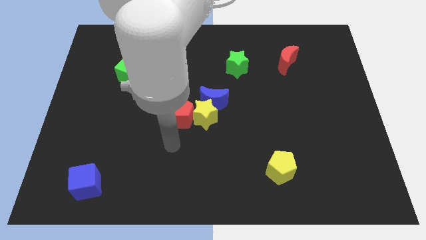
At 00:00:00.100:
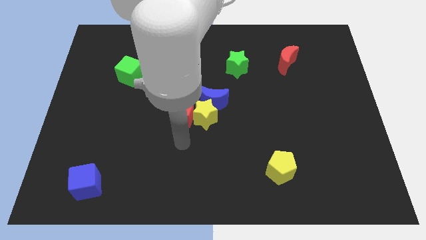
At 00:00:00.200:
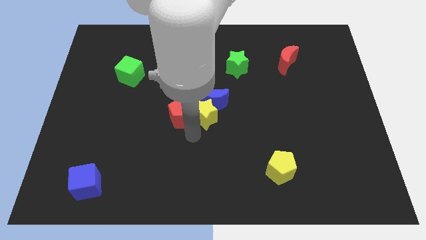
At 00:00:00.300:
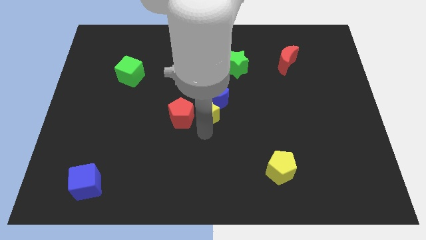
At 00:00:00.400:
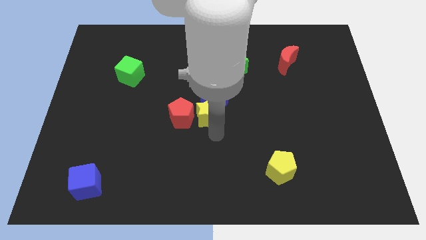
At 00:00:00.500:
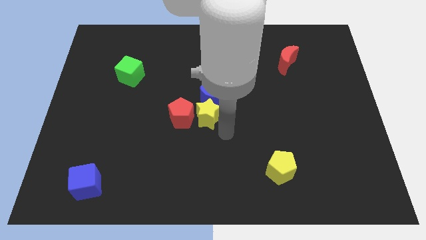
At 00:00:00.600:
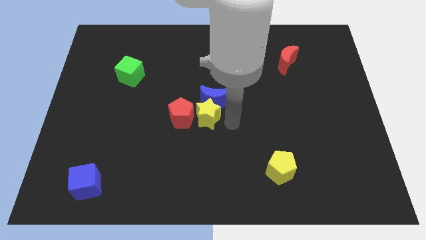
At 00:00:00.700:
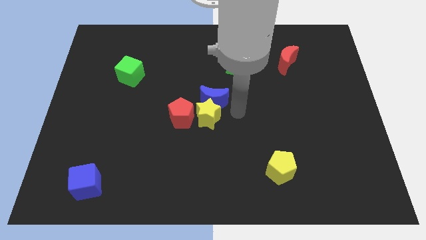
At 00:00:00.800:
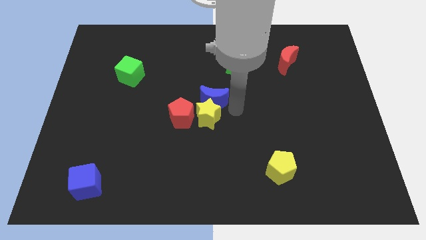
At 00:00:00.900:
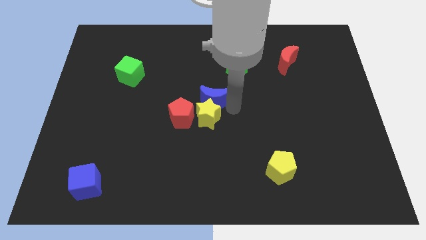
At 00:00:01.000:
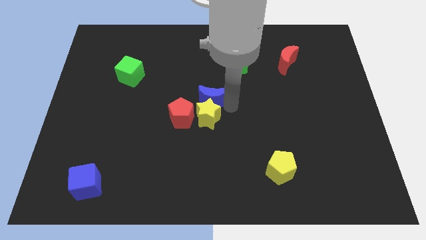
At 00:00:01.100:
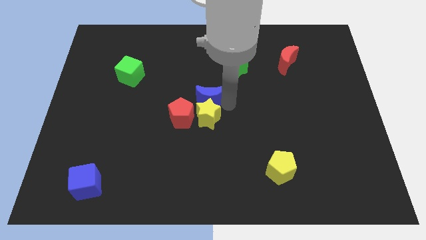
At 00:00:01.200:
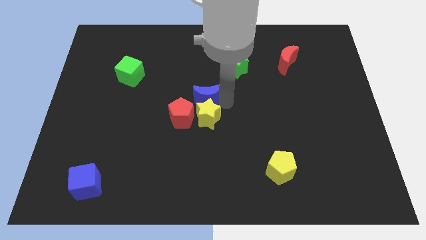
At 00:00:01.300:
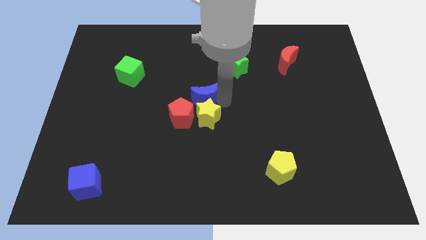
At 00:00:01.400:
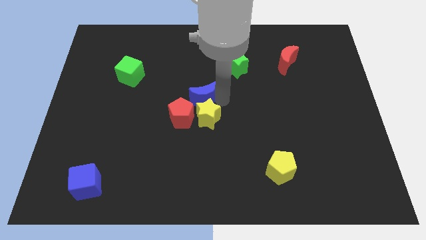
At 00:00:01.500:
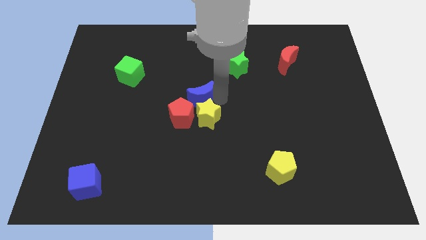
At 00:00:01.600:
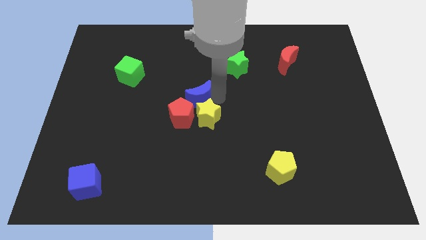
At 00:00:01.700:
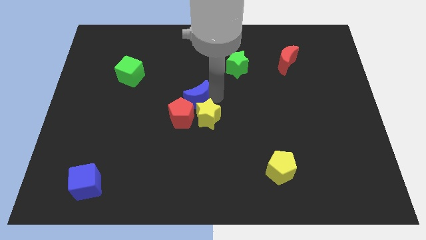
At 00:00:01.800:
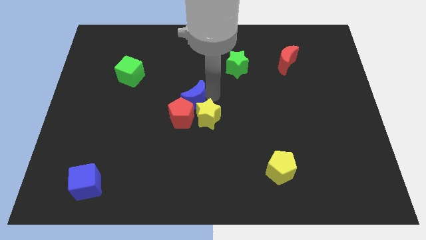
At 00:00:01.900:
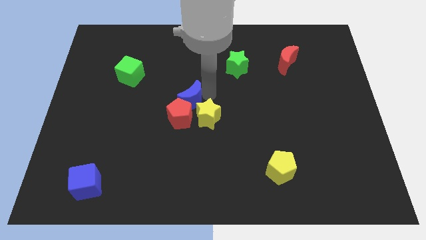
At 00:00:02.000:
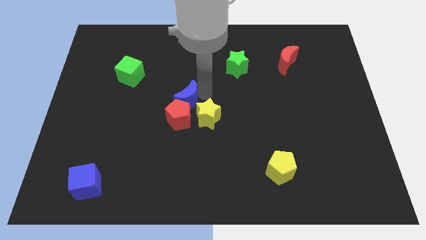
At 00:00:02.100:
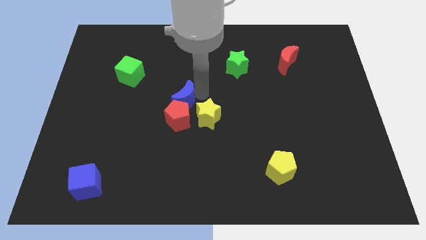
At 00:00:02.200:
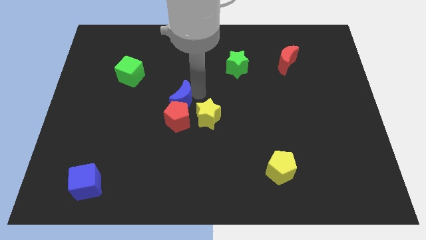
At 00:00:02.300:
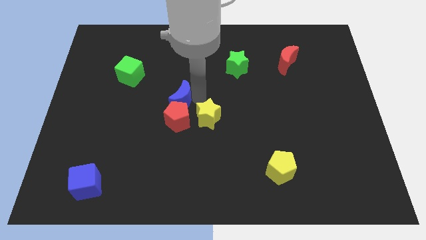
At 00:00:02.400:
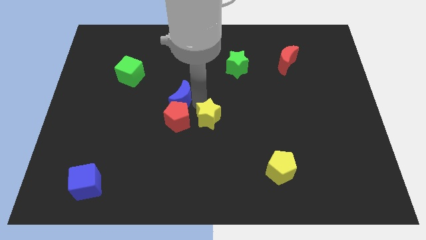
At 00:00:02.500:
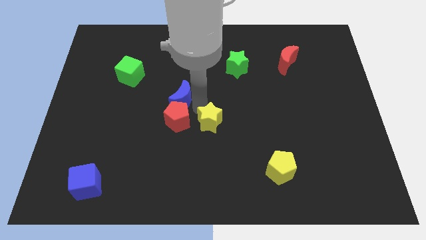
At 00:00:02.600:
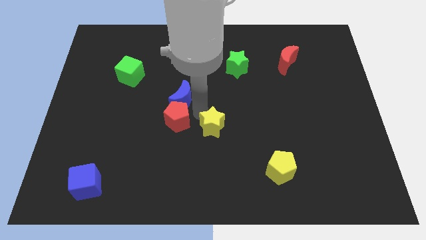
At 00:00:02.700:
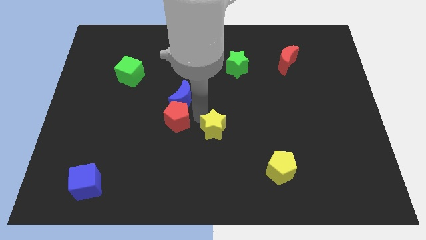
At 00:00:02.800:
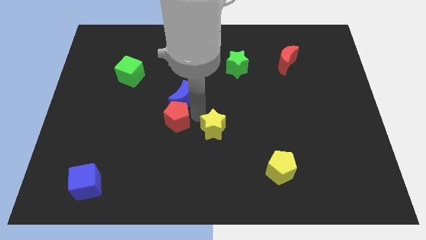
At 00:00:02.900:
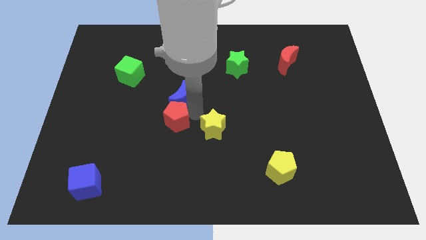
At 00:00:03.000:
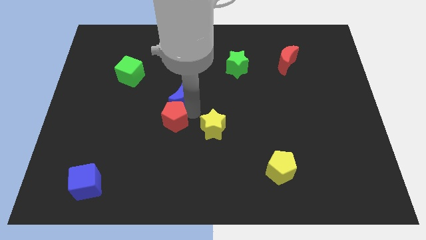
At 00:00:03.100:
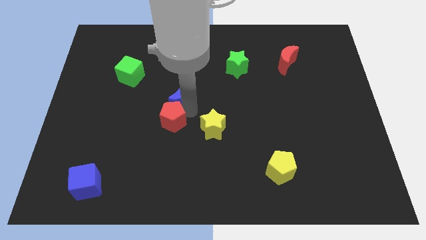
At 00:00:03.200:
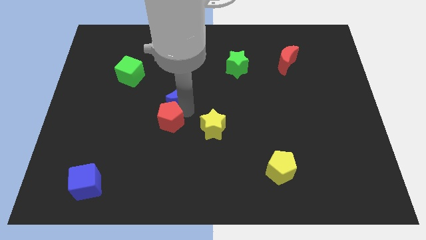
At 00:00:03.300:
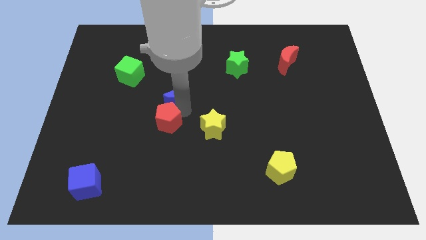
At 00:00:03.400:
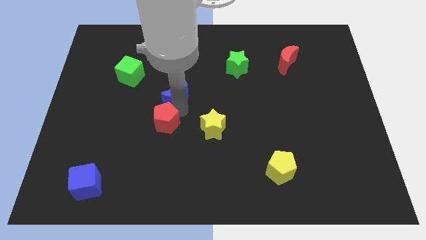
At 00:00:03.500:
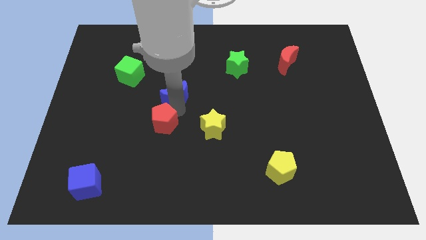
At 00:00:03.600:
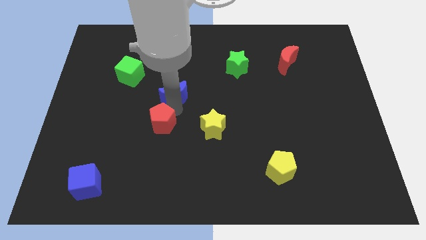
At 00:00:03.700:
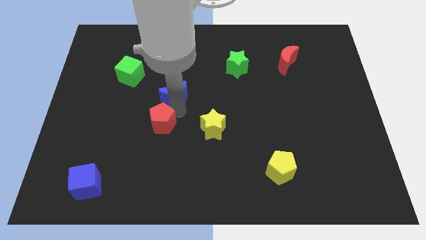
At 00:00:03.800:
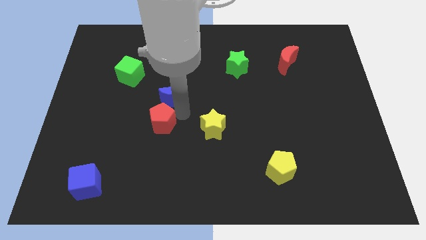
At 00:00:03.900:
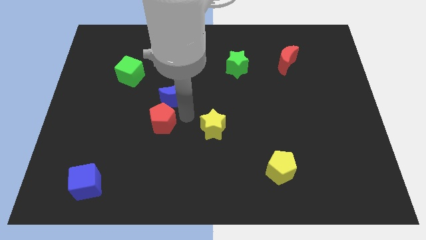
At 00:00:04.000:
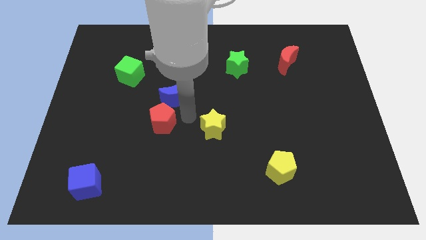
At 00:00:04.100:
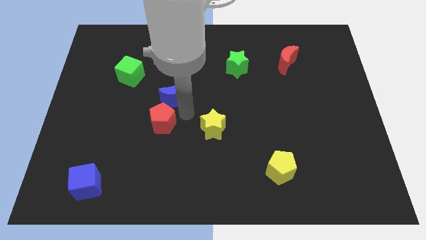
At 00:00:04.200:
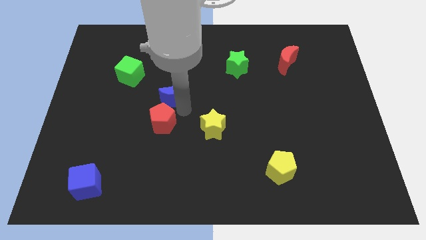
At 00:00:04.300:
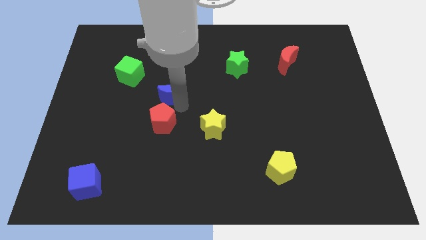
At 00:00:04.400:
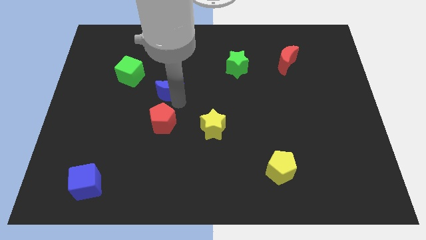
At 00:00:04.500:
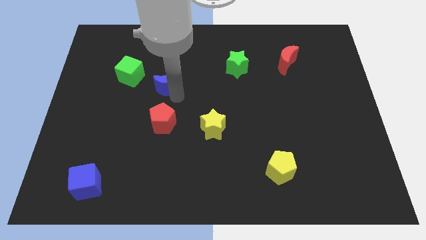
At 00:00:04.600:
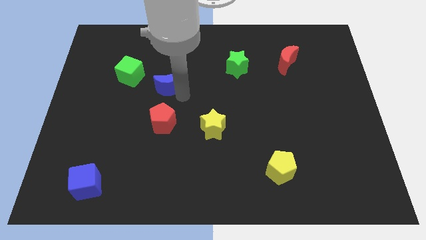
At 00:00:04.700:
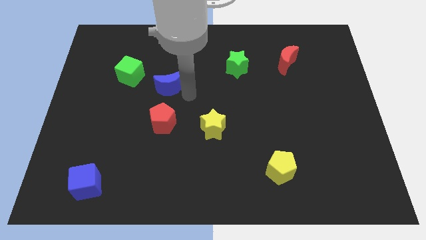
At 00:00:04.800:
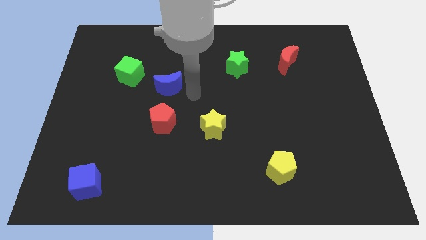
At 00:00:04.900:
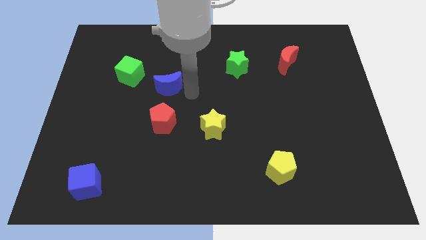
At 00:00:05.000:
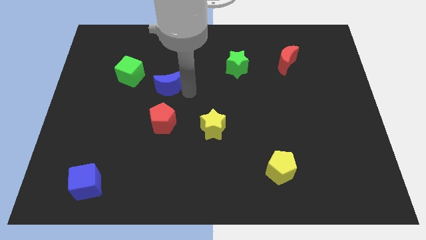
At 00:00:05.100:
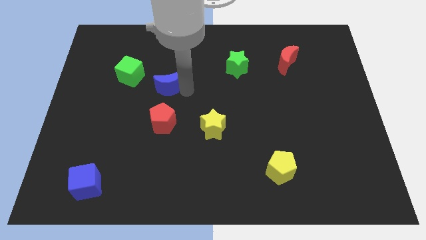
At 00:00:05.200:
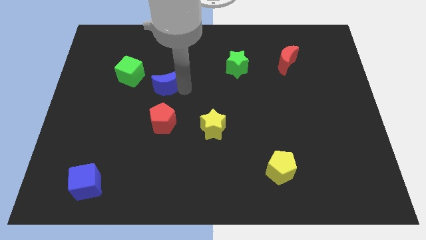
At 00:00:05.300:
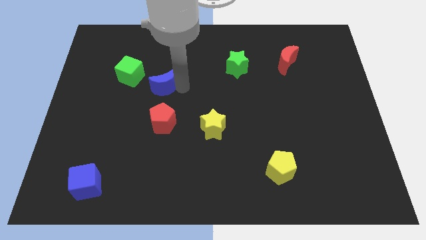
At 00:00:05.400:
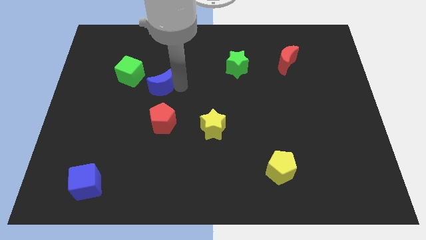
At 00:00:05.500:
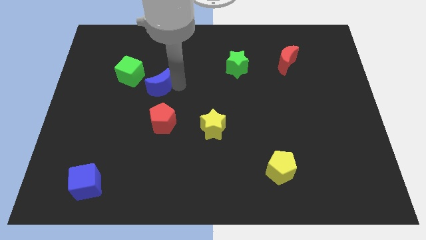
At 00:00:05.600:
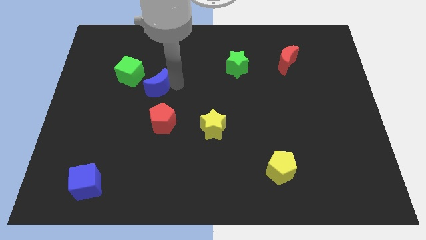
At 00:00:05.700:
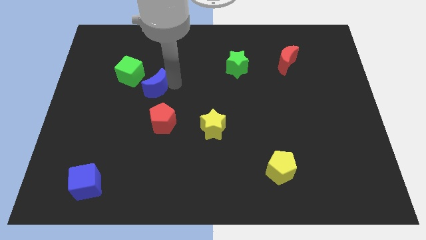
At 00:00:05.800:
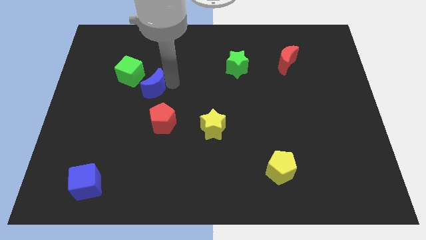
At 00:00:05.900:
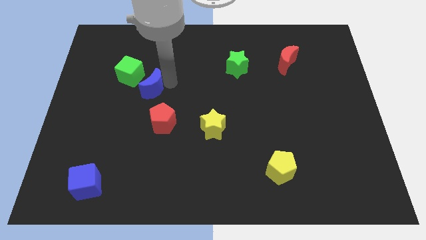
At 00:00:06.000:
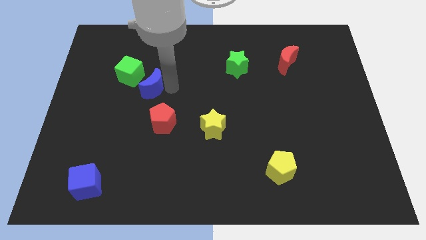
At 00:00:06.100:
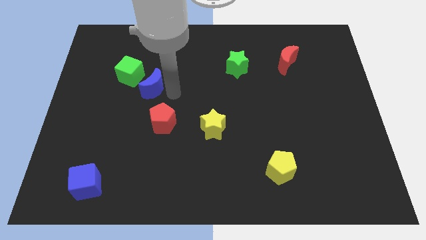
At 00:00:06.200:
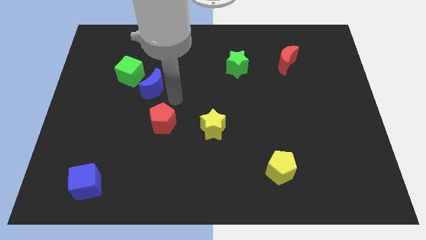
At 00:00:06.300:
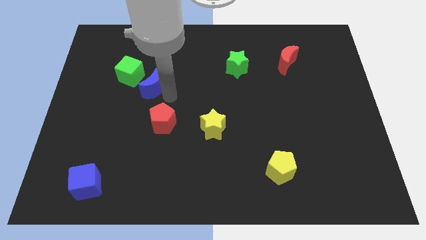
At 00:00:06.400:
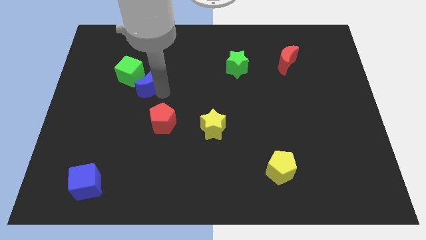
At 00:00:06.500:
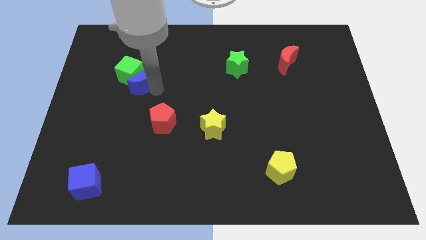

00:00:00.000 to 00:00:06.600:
put the blue moon next to the green cube

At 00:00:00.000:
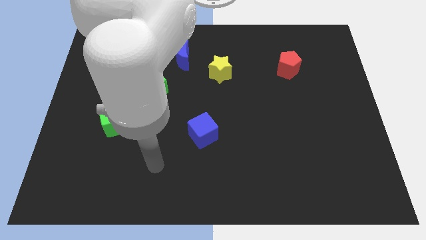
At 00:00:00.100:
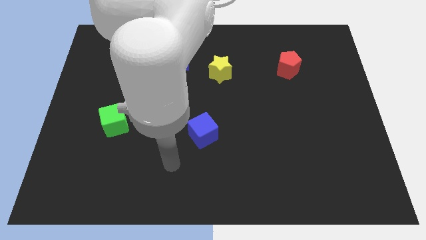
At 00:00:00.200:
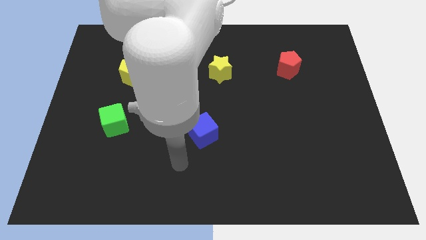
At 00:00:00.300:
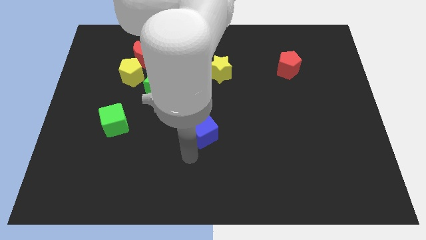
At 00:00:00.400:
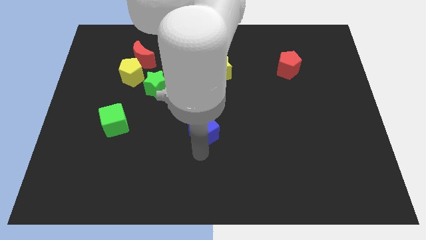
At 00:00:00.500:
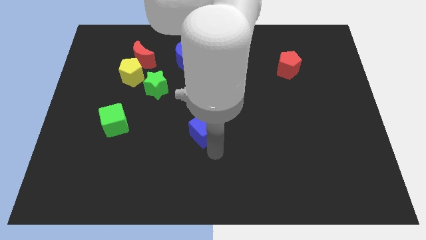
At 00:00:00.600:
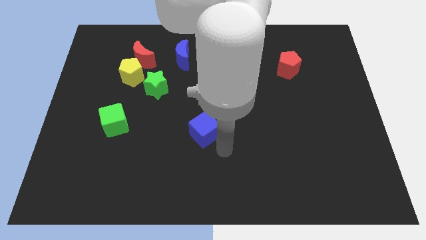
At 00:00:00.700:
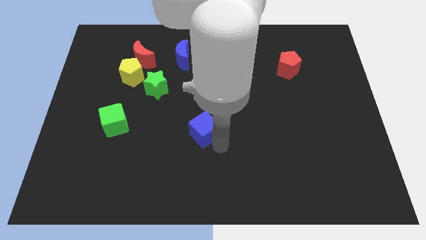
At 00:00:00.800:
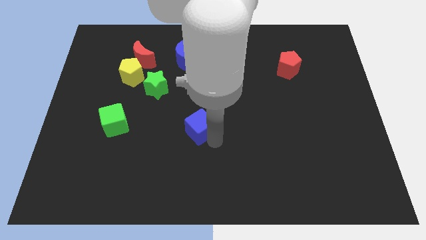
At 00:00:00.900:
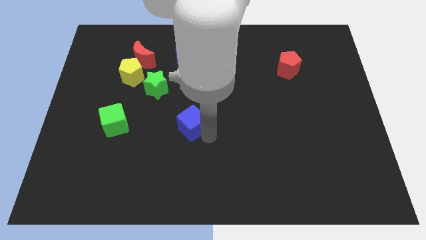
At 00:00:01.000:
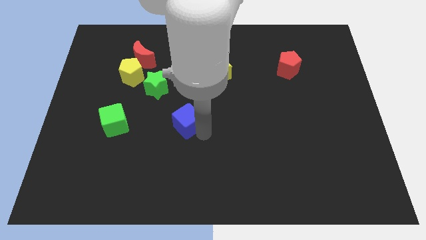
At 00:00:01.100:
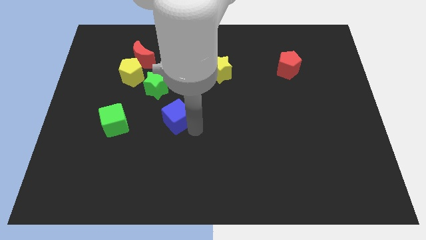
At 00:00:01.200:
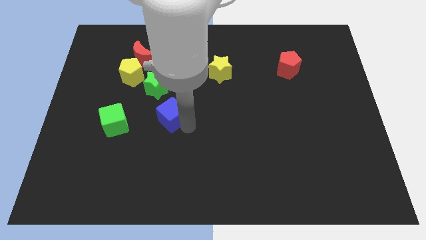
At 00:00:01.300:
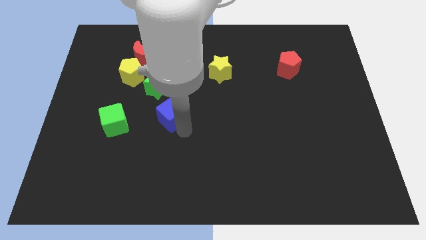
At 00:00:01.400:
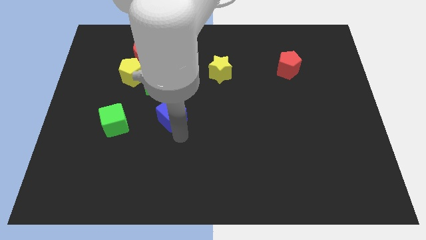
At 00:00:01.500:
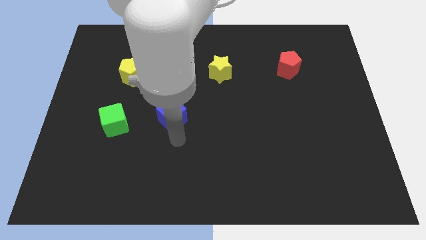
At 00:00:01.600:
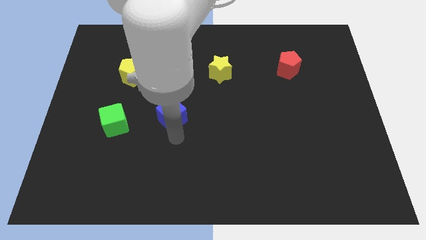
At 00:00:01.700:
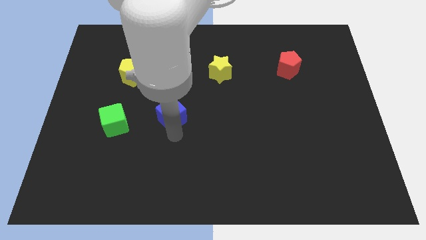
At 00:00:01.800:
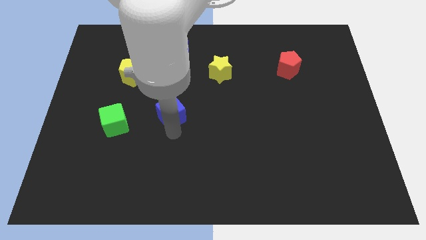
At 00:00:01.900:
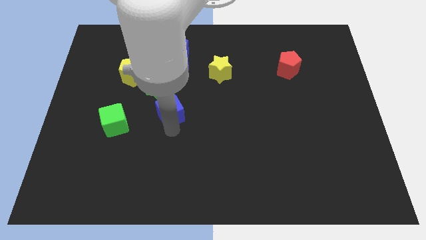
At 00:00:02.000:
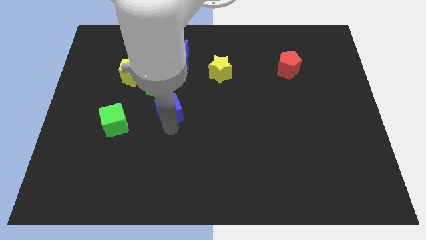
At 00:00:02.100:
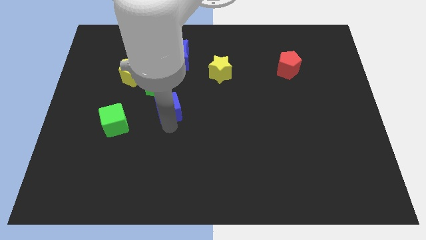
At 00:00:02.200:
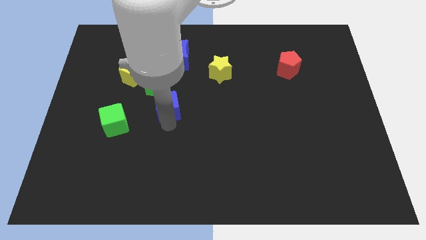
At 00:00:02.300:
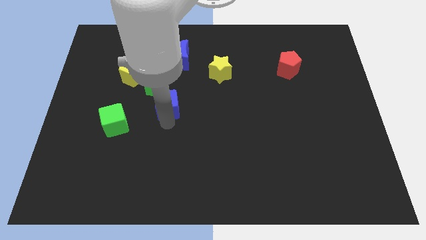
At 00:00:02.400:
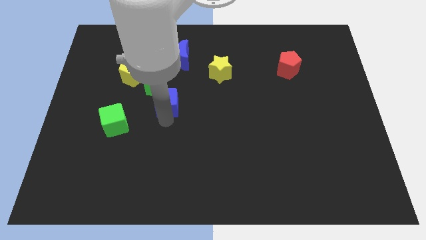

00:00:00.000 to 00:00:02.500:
move the blue cube to the green star
